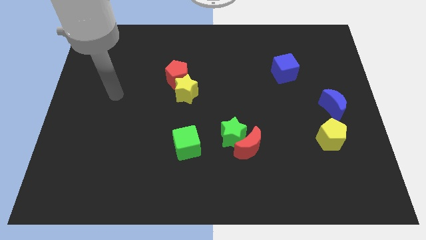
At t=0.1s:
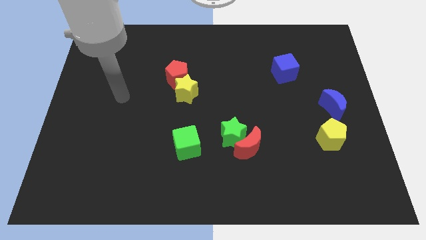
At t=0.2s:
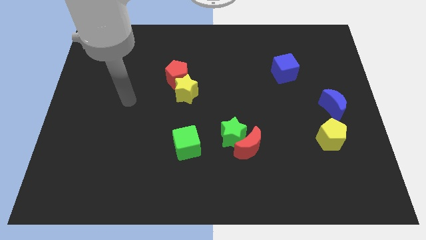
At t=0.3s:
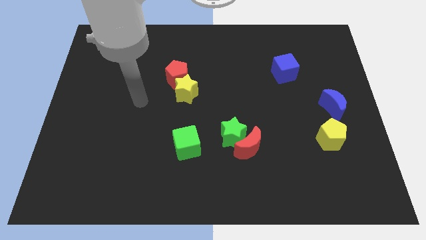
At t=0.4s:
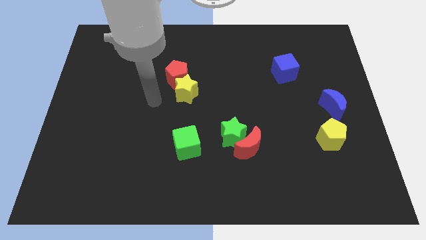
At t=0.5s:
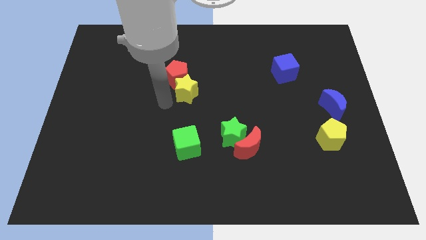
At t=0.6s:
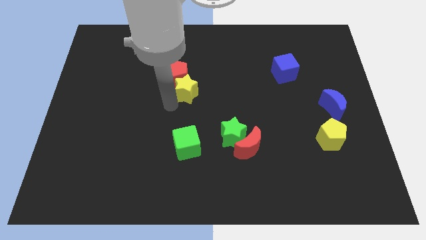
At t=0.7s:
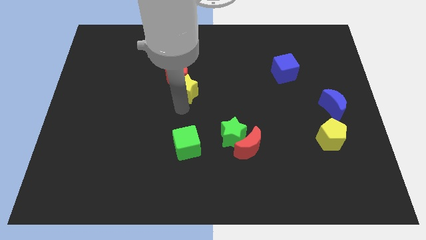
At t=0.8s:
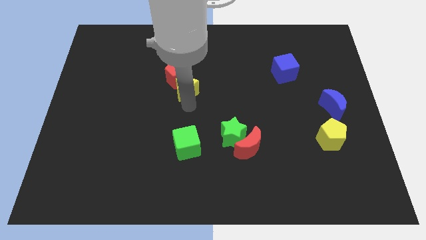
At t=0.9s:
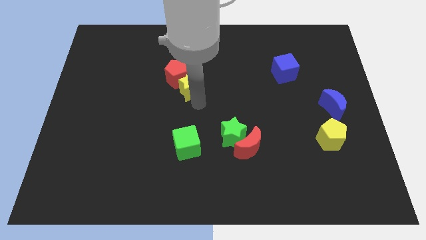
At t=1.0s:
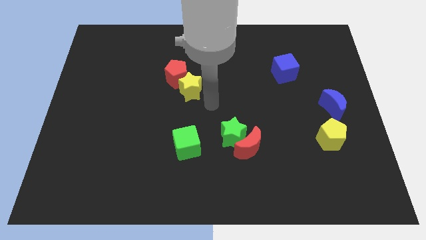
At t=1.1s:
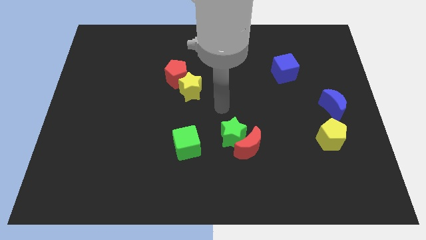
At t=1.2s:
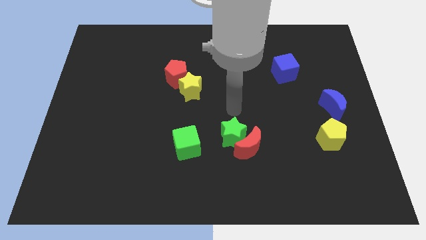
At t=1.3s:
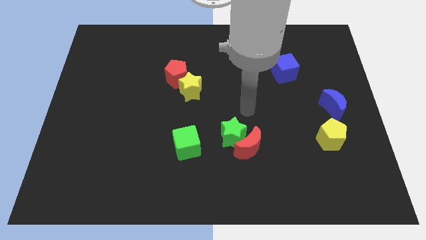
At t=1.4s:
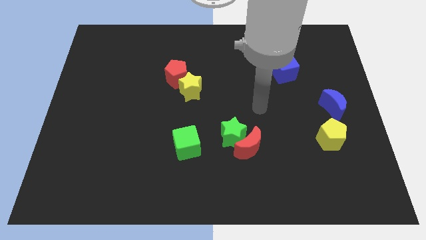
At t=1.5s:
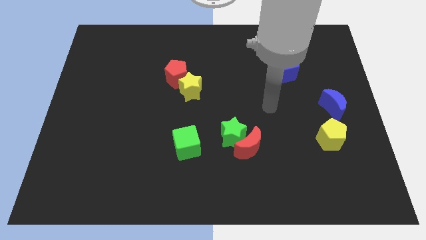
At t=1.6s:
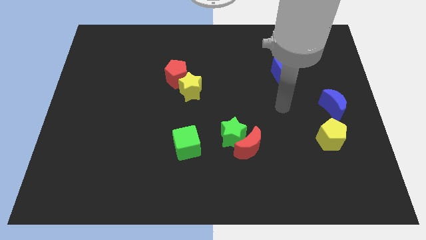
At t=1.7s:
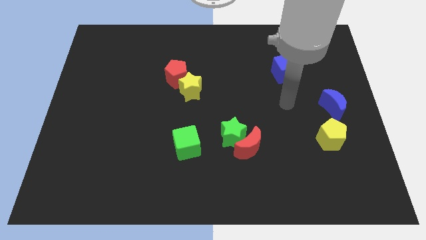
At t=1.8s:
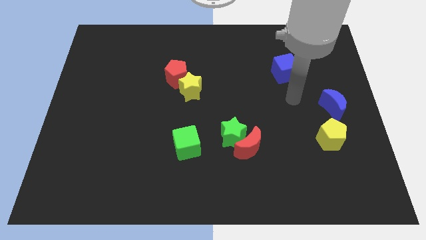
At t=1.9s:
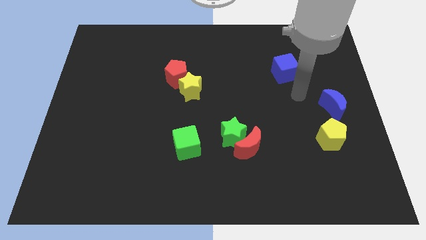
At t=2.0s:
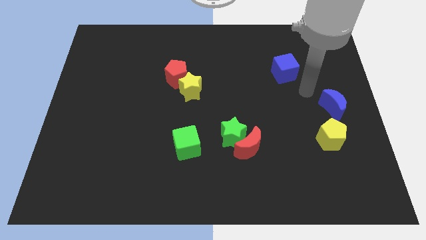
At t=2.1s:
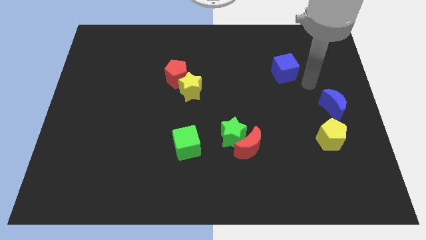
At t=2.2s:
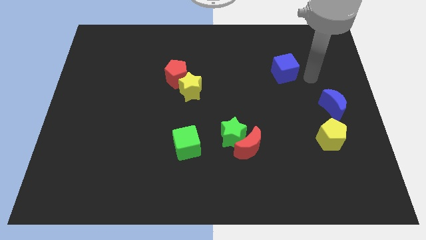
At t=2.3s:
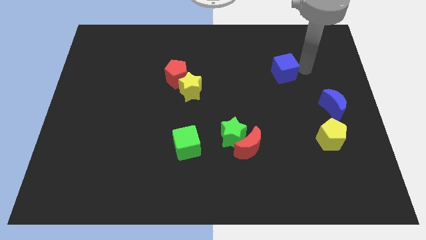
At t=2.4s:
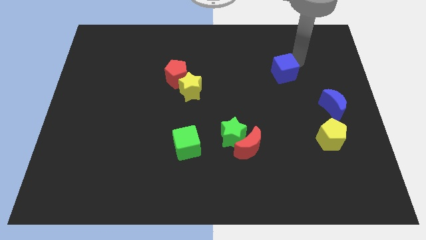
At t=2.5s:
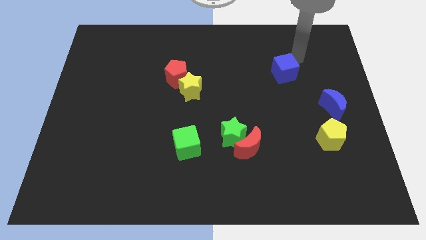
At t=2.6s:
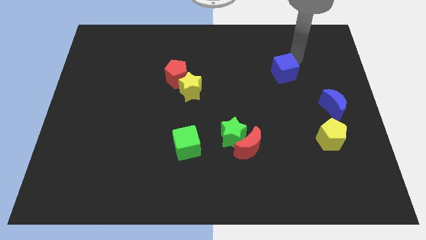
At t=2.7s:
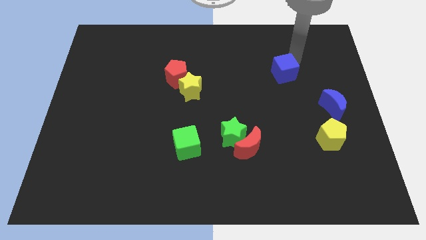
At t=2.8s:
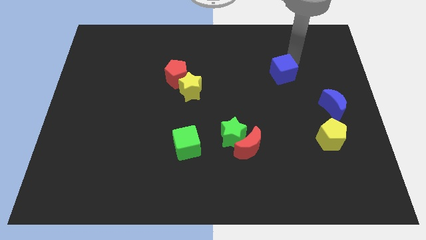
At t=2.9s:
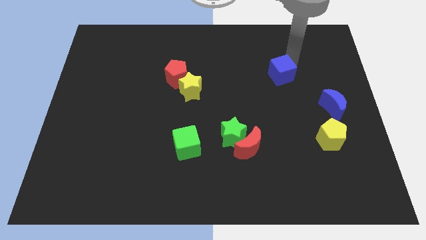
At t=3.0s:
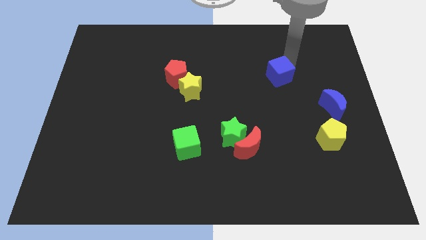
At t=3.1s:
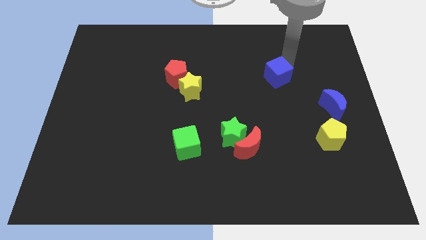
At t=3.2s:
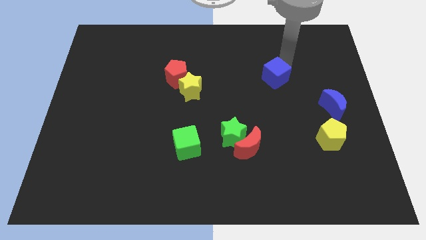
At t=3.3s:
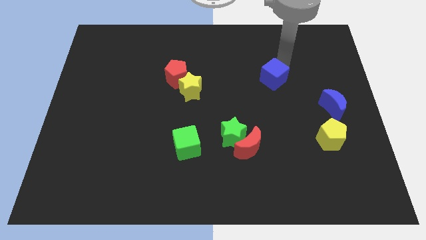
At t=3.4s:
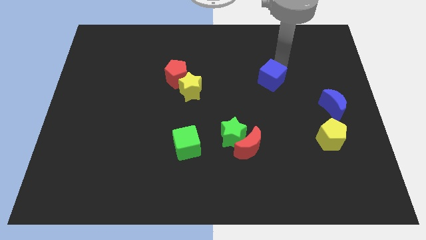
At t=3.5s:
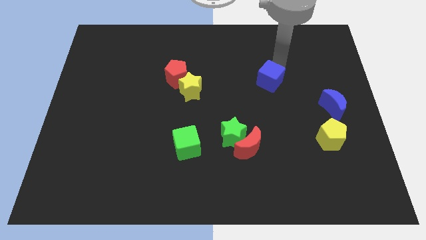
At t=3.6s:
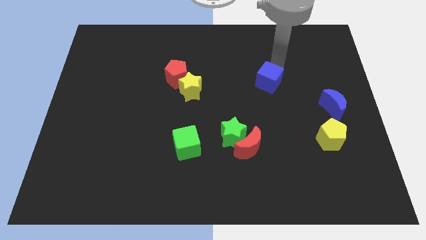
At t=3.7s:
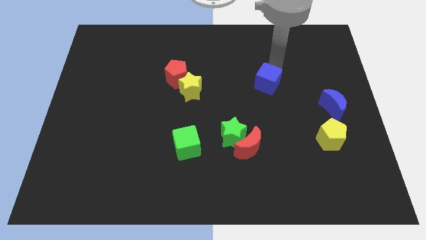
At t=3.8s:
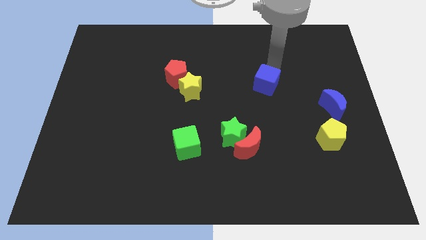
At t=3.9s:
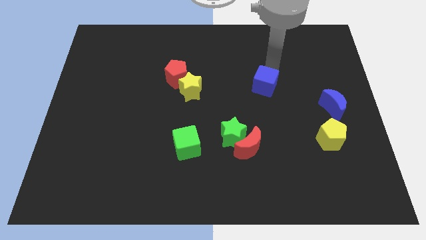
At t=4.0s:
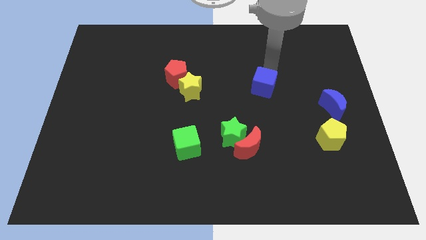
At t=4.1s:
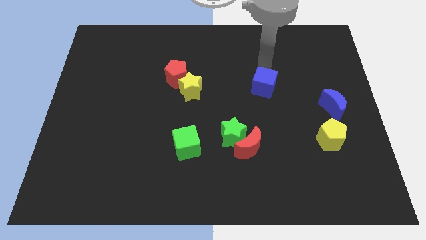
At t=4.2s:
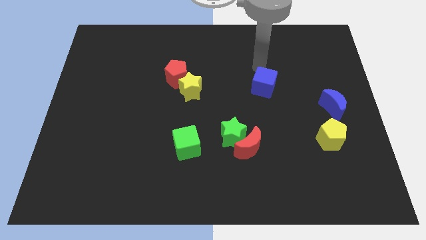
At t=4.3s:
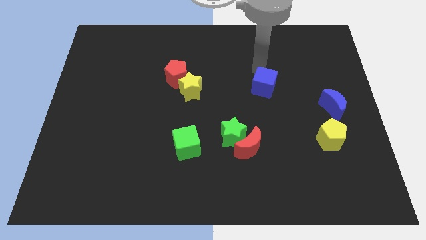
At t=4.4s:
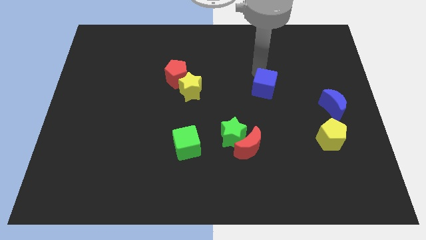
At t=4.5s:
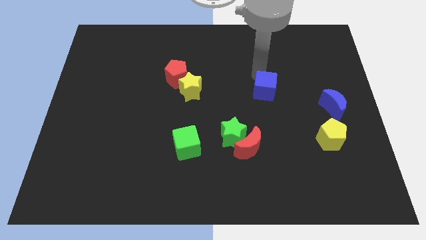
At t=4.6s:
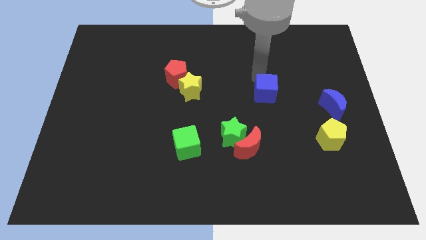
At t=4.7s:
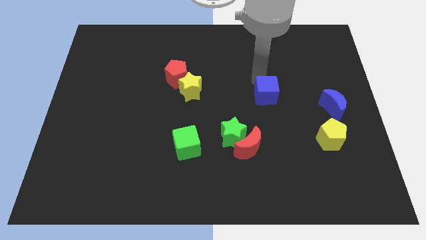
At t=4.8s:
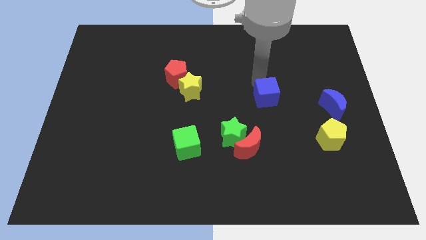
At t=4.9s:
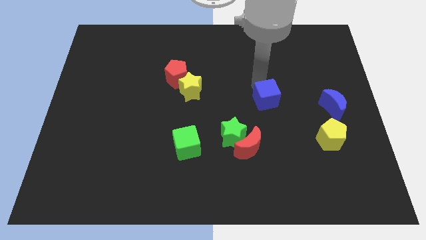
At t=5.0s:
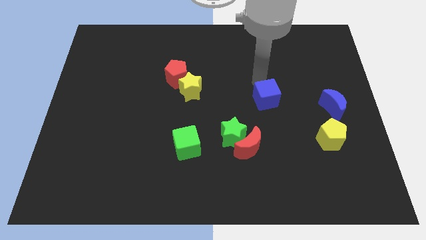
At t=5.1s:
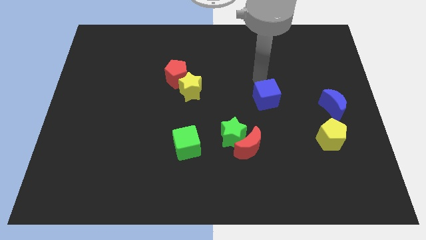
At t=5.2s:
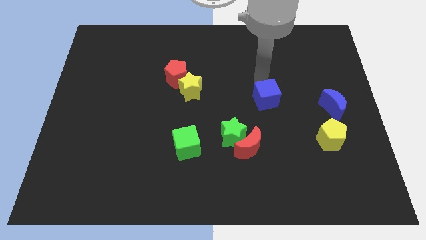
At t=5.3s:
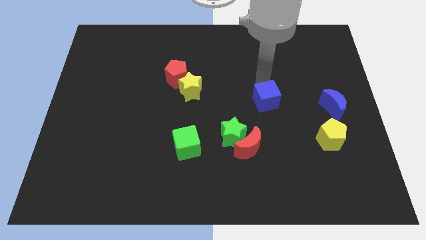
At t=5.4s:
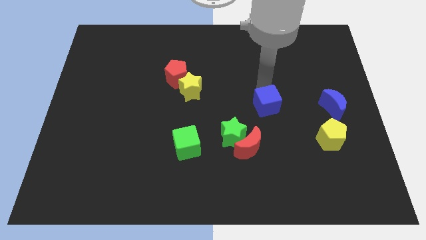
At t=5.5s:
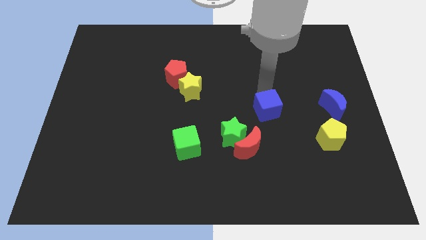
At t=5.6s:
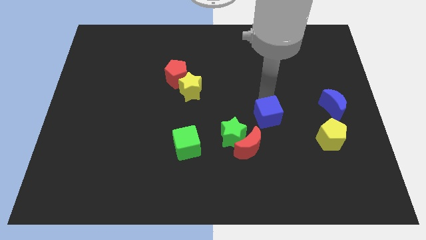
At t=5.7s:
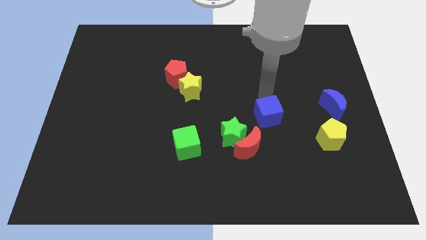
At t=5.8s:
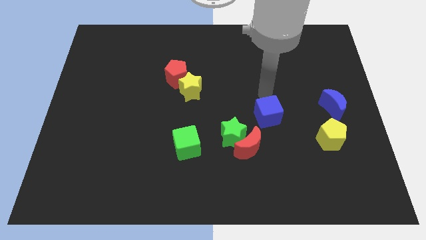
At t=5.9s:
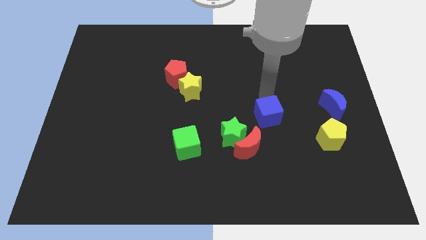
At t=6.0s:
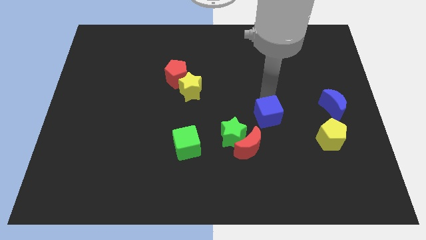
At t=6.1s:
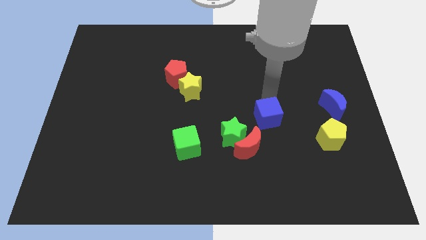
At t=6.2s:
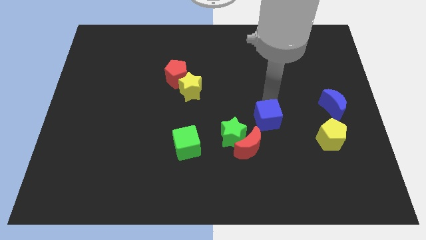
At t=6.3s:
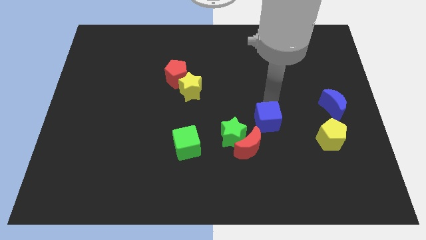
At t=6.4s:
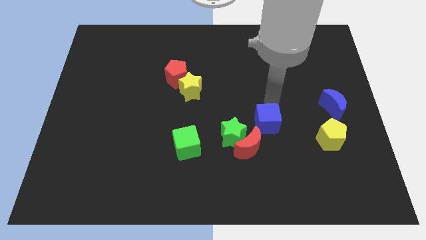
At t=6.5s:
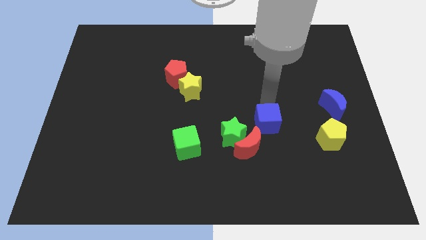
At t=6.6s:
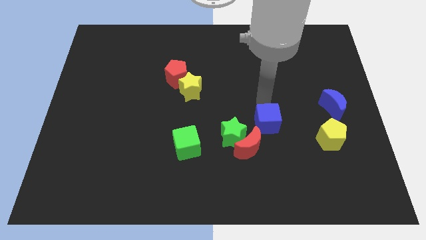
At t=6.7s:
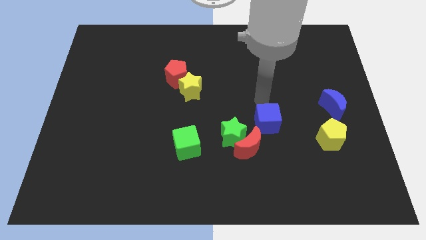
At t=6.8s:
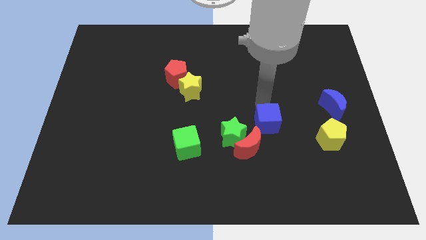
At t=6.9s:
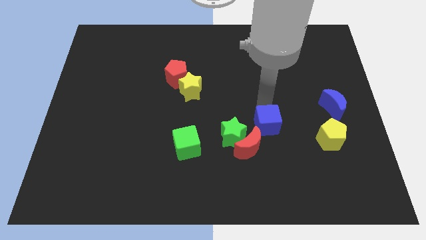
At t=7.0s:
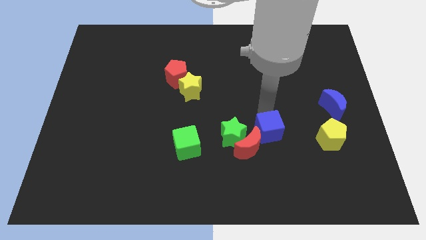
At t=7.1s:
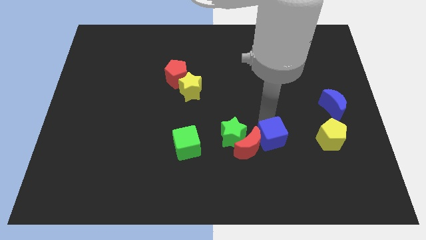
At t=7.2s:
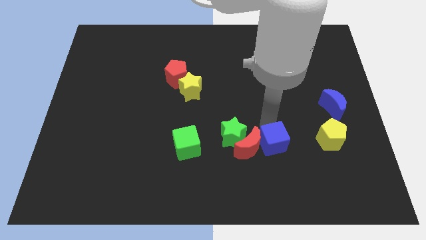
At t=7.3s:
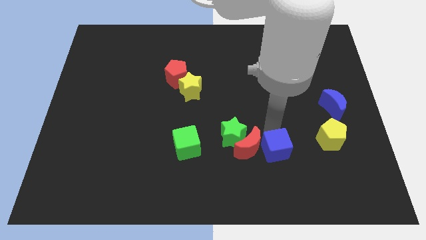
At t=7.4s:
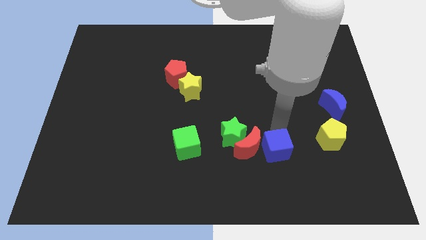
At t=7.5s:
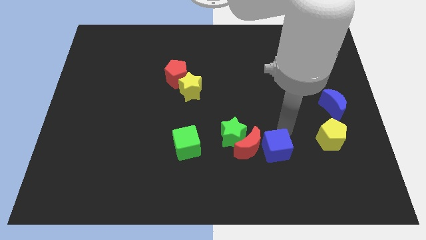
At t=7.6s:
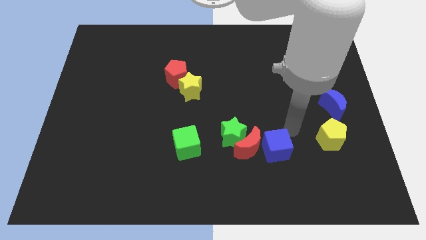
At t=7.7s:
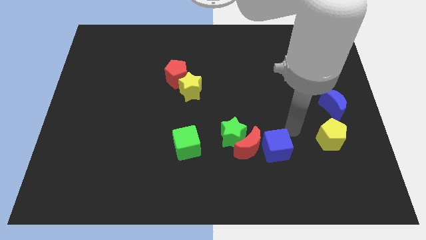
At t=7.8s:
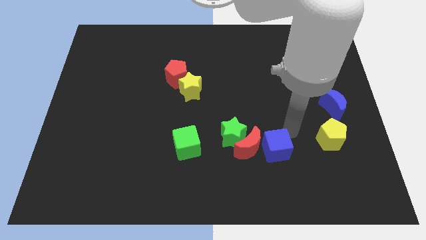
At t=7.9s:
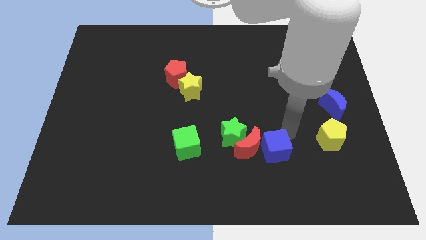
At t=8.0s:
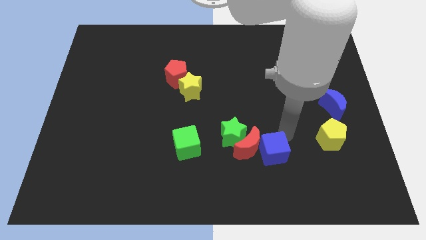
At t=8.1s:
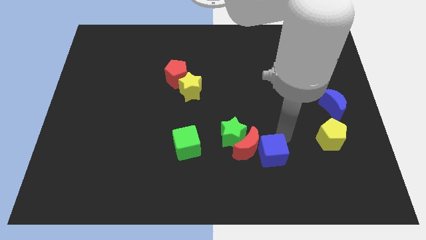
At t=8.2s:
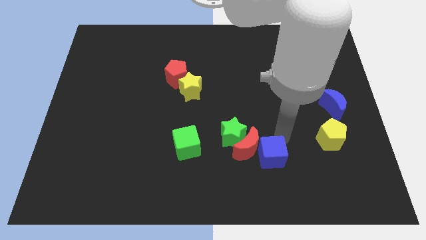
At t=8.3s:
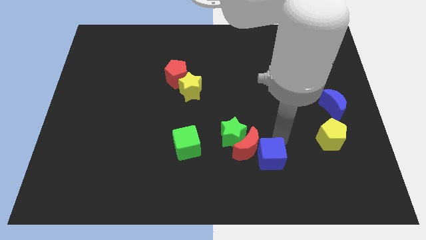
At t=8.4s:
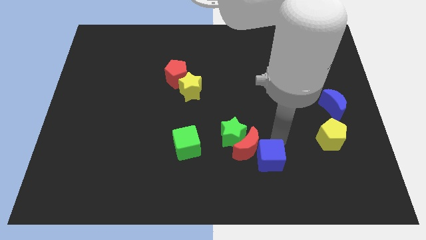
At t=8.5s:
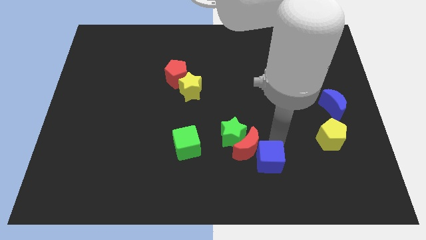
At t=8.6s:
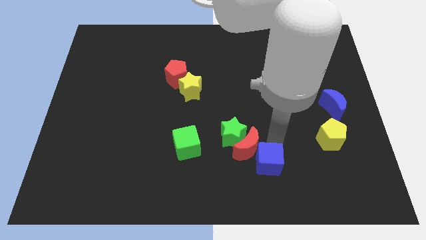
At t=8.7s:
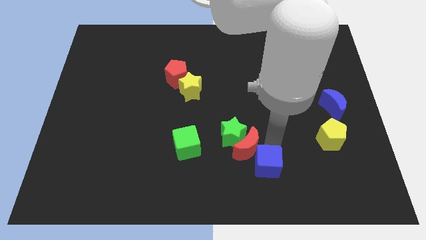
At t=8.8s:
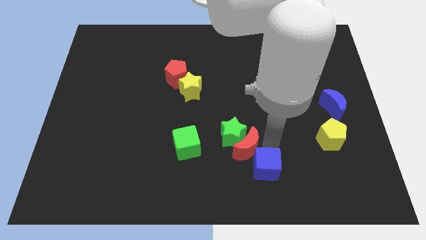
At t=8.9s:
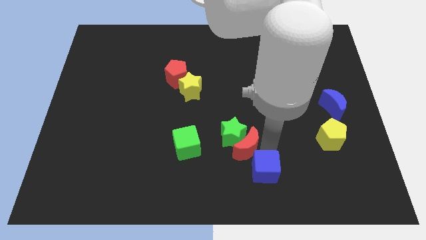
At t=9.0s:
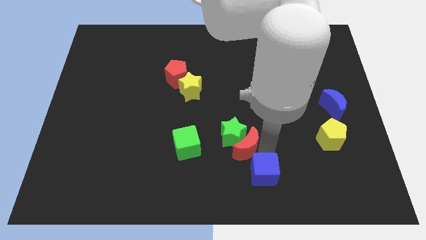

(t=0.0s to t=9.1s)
put the blue cube to the bottom
